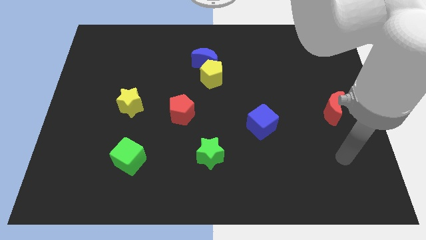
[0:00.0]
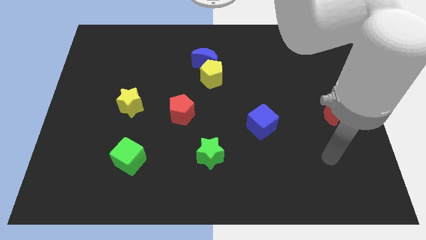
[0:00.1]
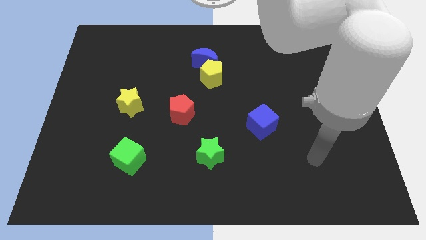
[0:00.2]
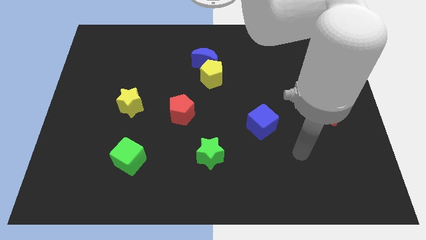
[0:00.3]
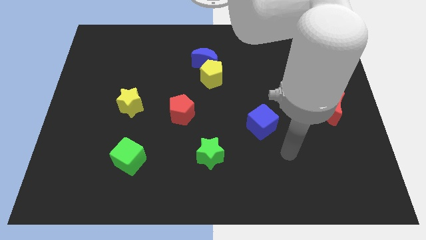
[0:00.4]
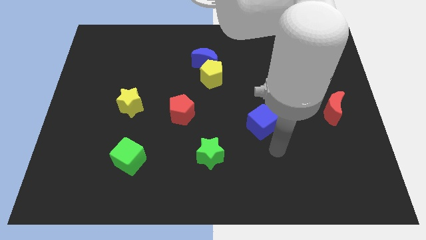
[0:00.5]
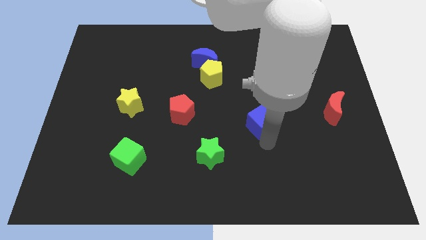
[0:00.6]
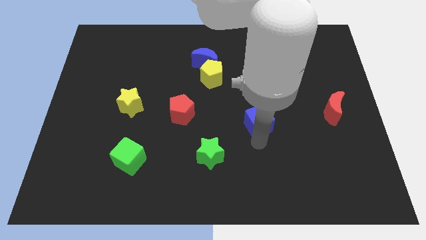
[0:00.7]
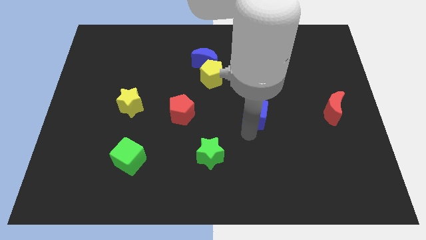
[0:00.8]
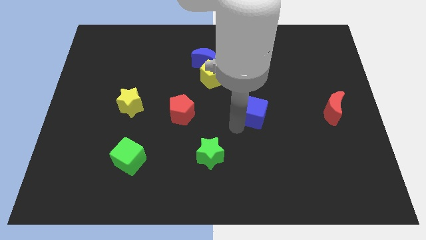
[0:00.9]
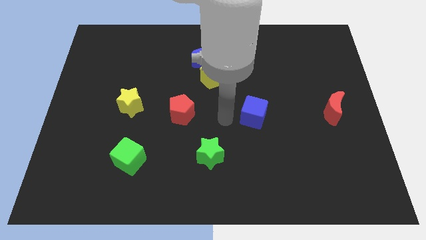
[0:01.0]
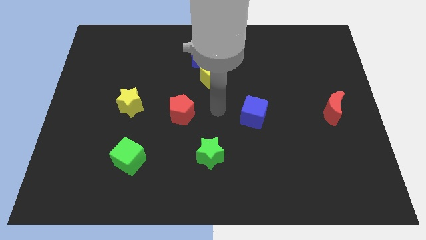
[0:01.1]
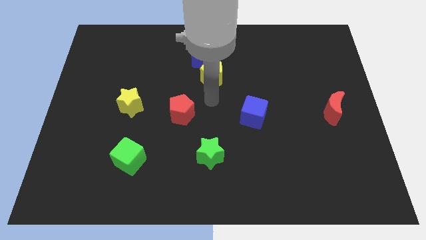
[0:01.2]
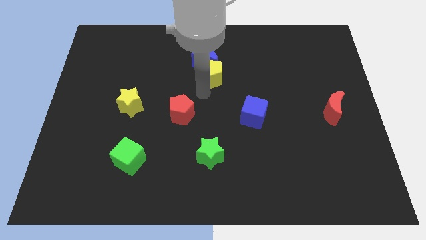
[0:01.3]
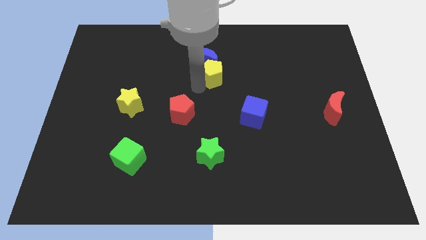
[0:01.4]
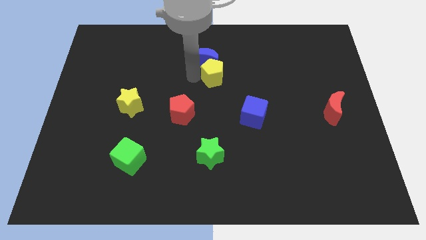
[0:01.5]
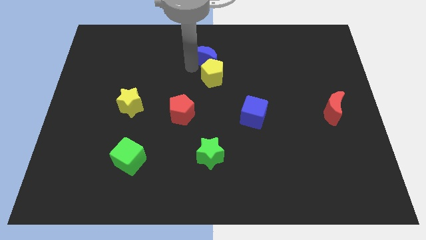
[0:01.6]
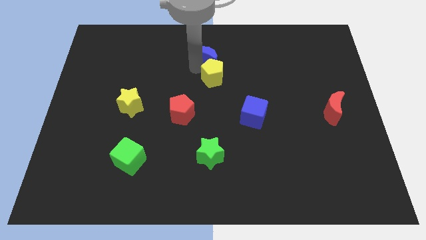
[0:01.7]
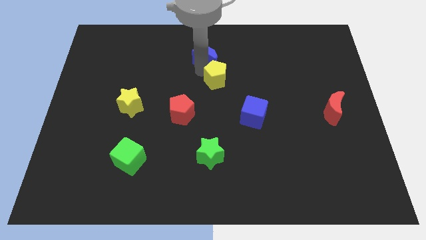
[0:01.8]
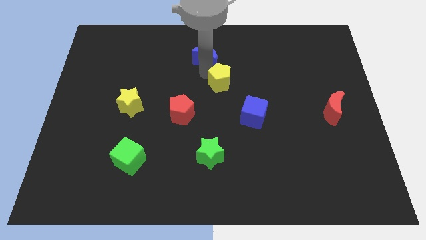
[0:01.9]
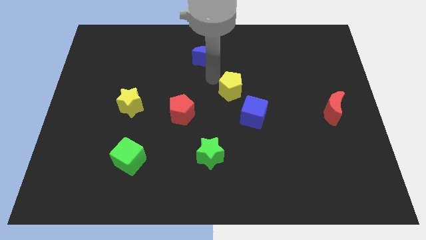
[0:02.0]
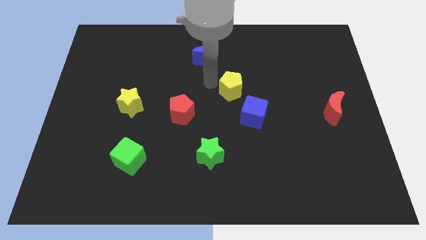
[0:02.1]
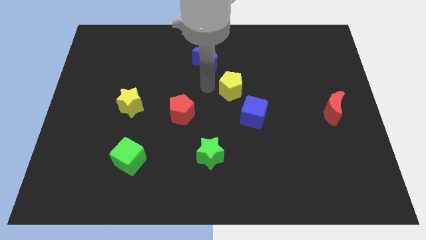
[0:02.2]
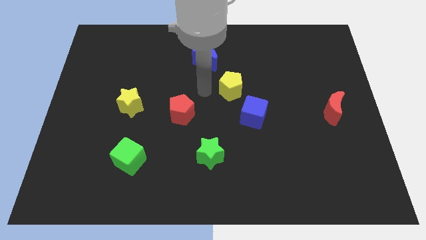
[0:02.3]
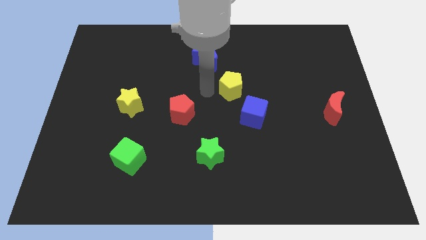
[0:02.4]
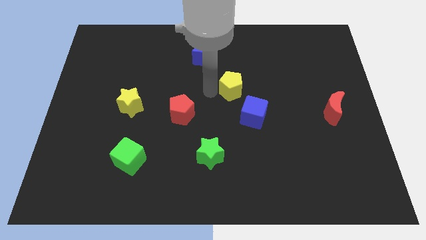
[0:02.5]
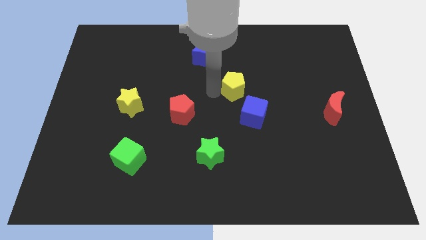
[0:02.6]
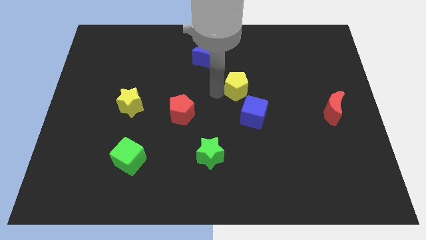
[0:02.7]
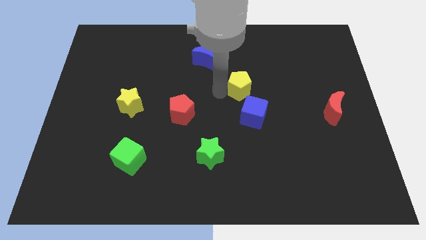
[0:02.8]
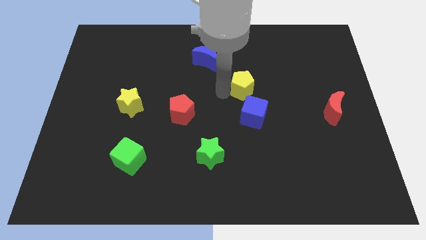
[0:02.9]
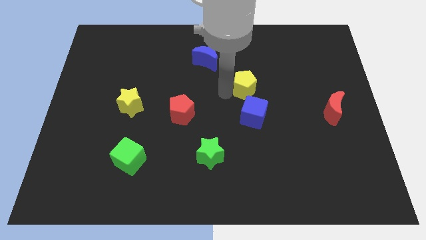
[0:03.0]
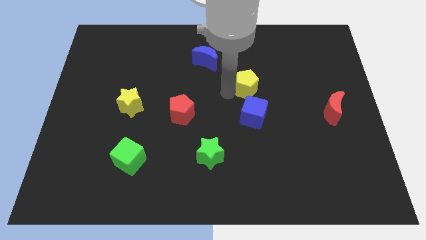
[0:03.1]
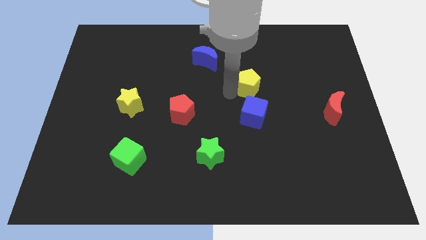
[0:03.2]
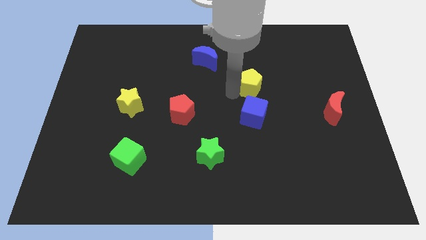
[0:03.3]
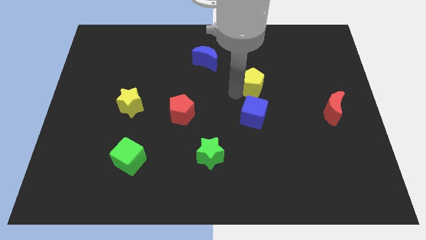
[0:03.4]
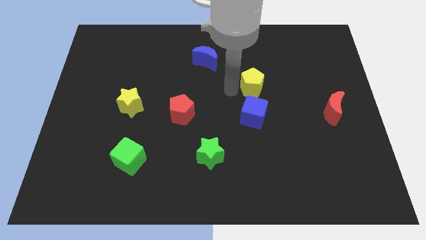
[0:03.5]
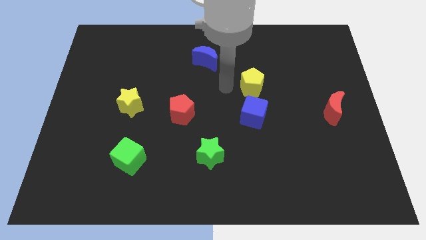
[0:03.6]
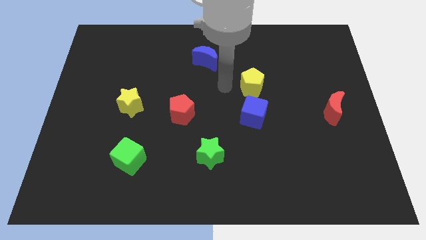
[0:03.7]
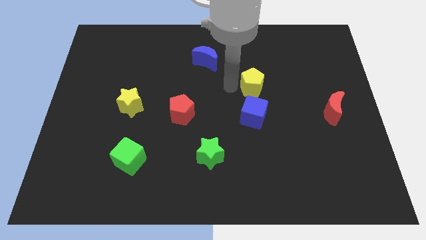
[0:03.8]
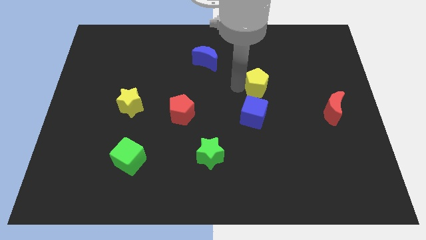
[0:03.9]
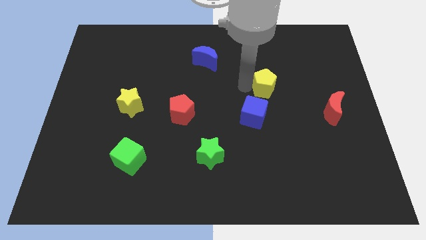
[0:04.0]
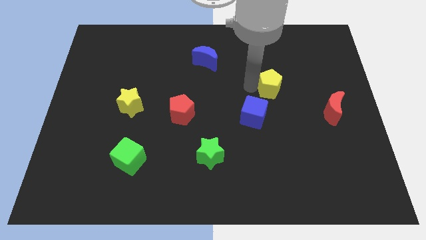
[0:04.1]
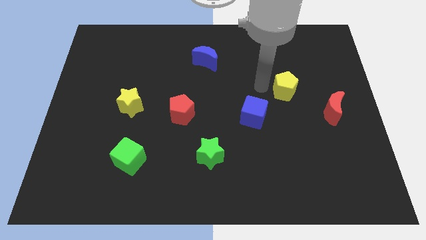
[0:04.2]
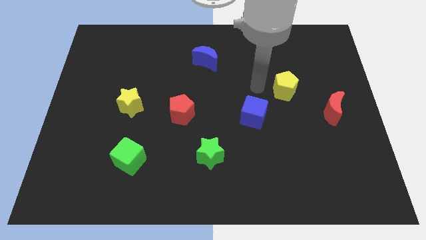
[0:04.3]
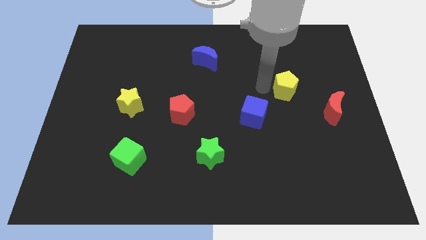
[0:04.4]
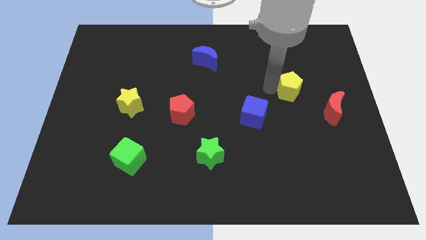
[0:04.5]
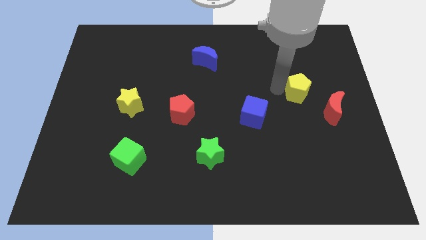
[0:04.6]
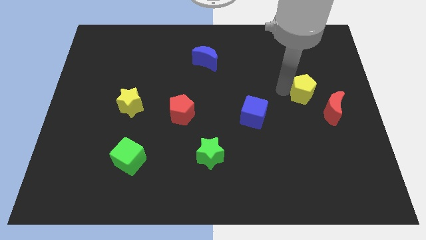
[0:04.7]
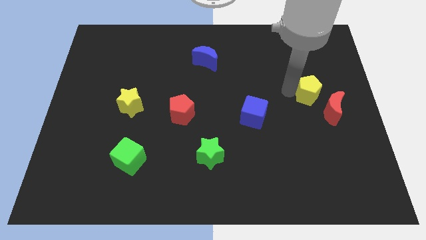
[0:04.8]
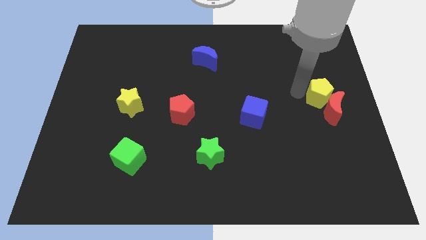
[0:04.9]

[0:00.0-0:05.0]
move the yellow pentagon to the right side

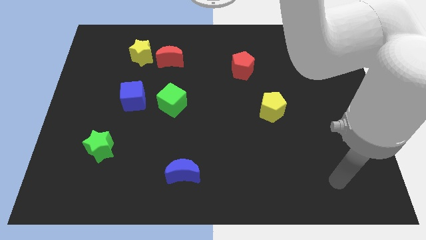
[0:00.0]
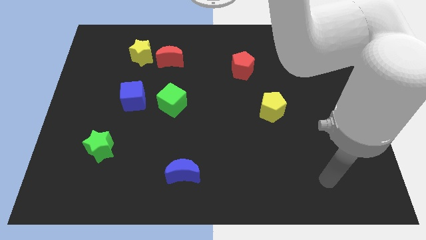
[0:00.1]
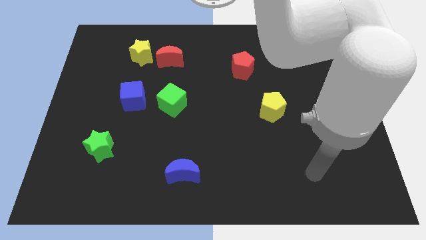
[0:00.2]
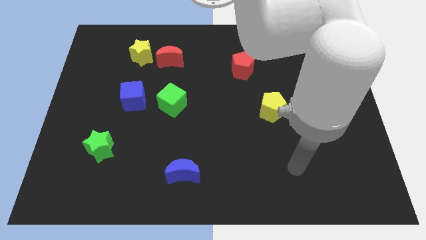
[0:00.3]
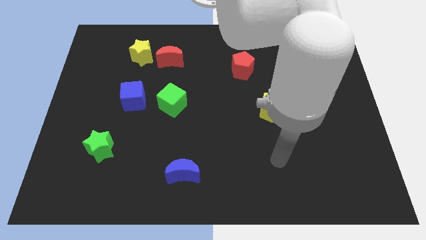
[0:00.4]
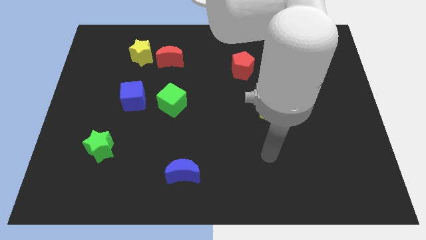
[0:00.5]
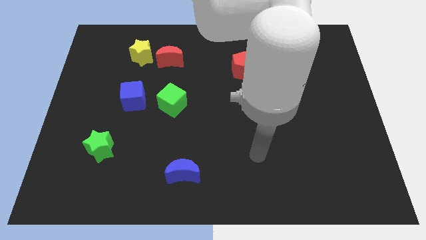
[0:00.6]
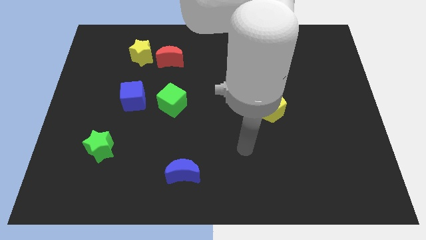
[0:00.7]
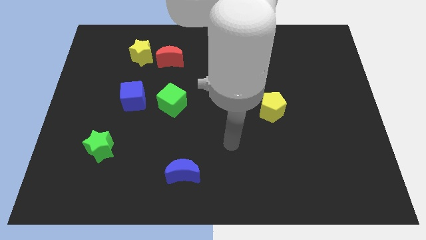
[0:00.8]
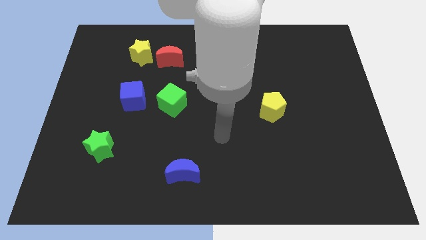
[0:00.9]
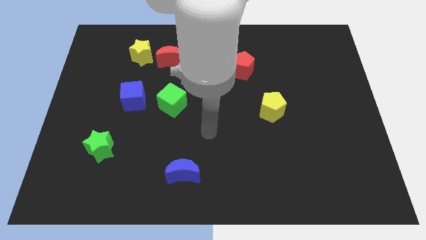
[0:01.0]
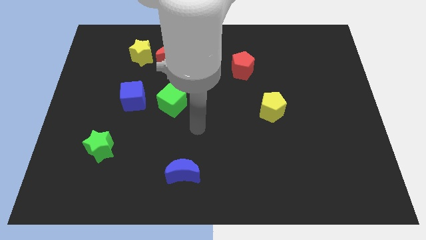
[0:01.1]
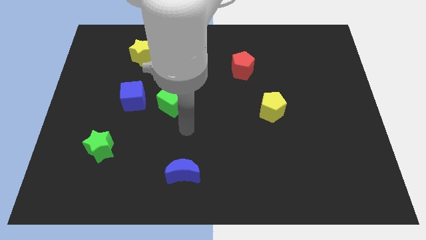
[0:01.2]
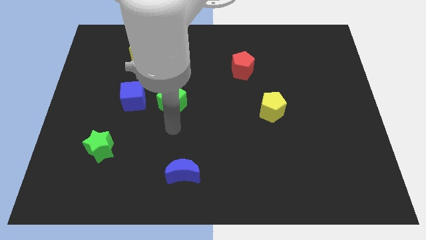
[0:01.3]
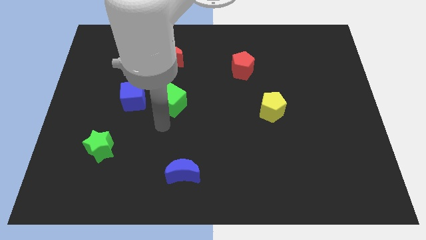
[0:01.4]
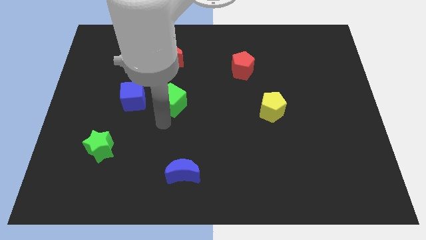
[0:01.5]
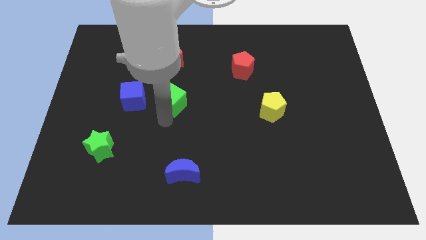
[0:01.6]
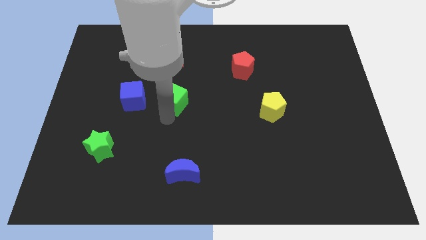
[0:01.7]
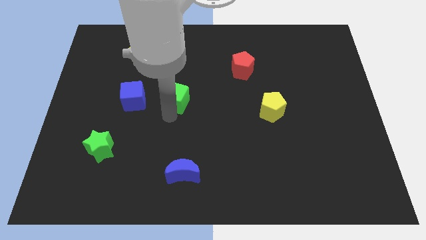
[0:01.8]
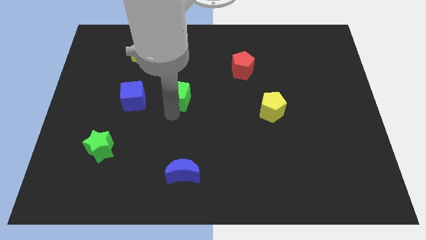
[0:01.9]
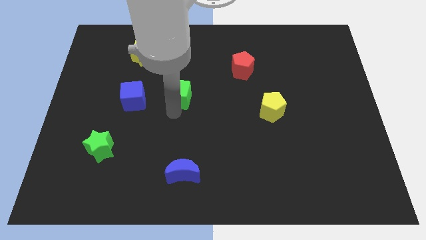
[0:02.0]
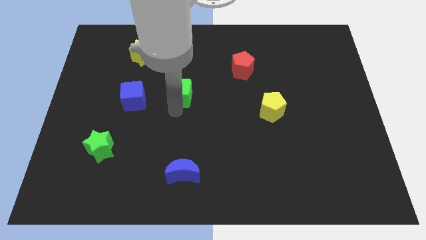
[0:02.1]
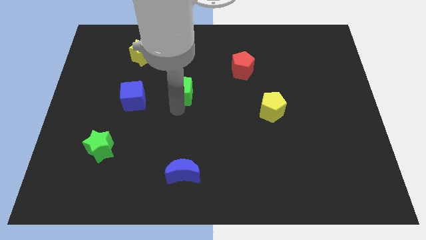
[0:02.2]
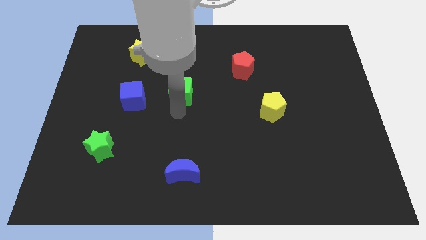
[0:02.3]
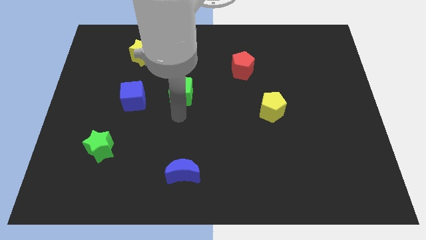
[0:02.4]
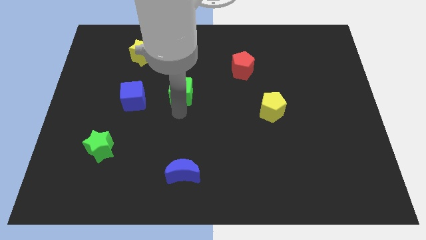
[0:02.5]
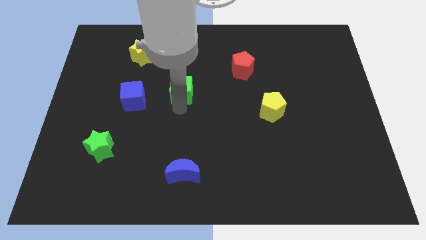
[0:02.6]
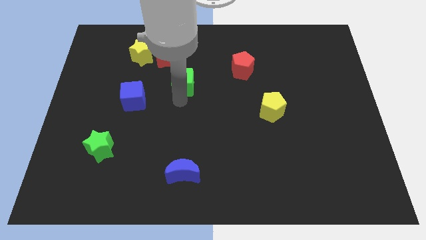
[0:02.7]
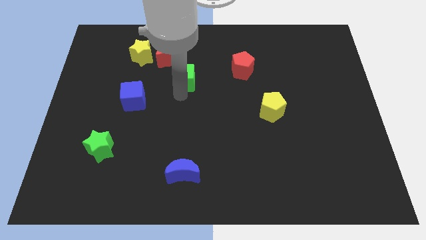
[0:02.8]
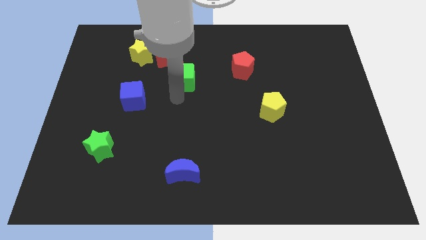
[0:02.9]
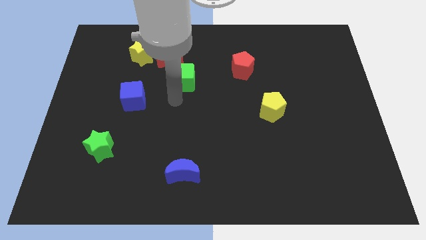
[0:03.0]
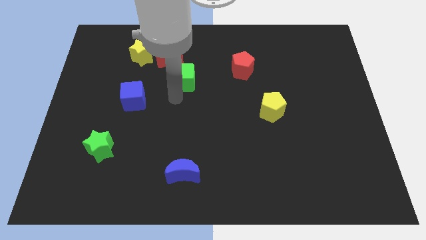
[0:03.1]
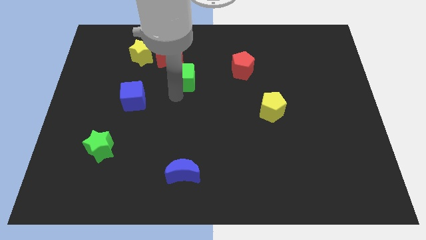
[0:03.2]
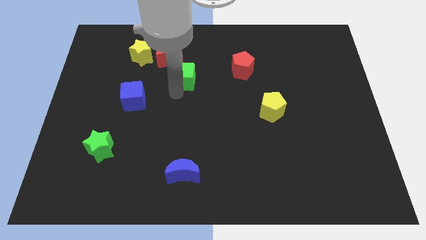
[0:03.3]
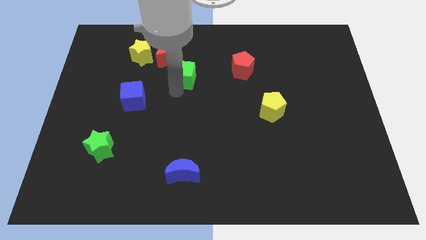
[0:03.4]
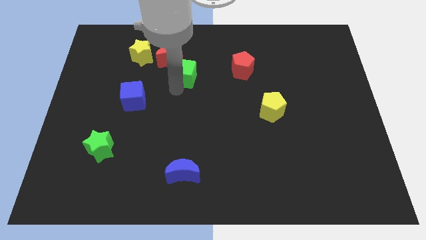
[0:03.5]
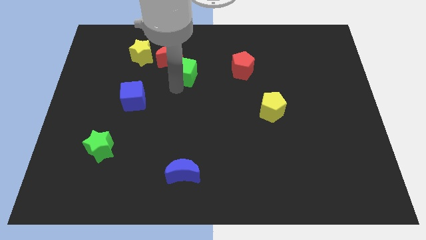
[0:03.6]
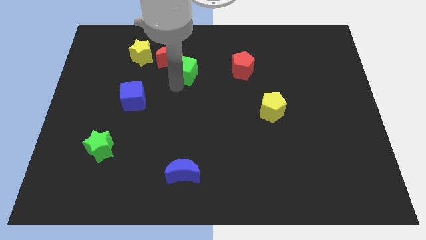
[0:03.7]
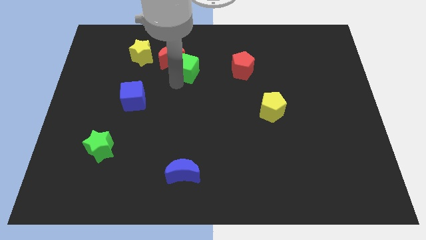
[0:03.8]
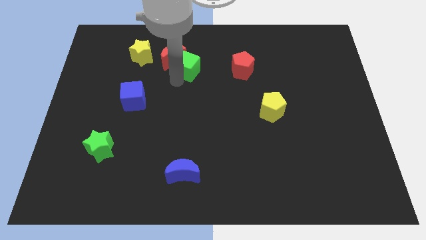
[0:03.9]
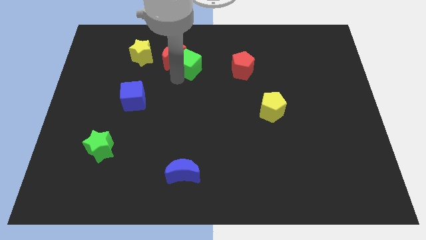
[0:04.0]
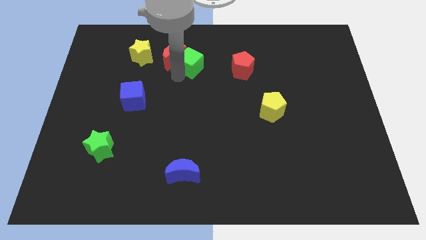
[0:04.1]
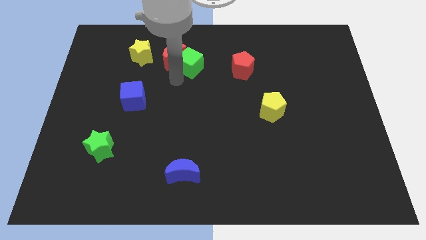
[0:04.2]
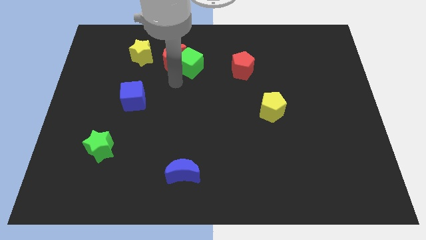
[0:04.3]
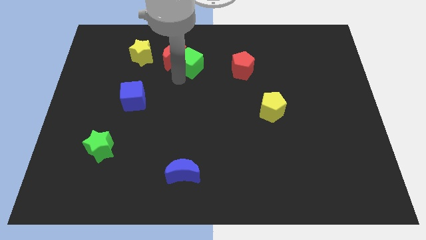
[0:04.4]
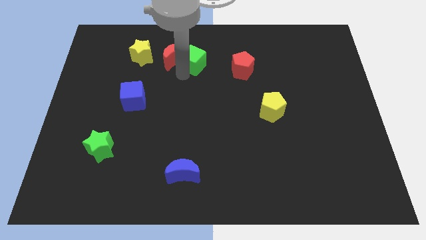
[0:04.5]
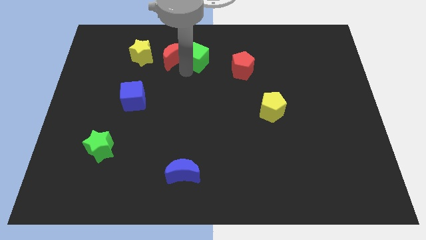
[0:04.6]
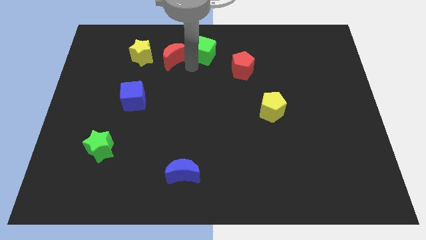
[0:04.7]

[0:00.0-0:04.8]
slide the green cube to the top side
